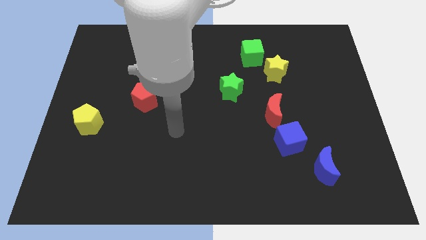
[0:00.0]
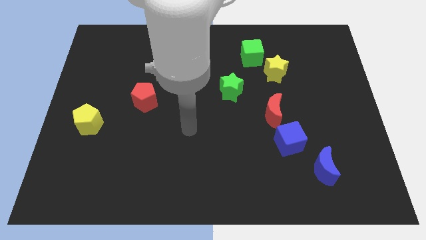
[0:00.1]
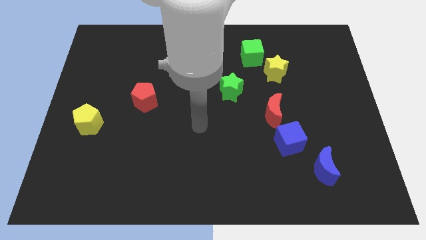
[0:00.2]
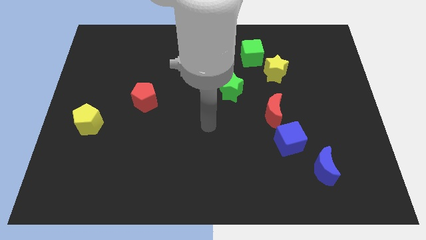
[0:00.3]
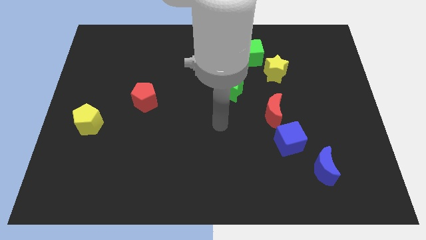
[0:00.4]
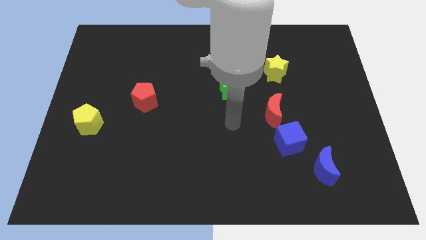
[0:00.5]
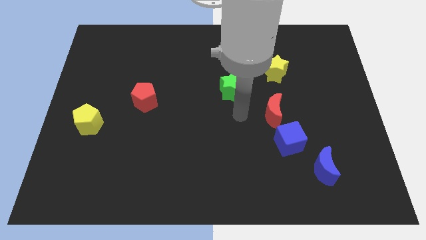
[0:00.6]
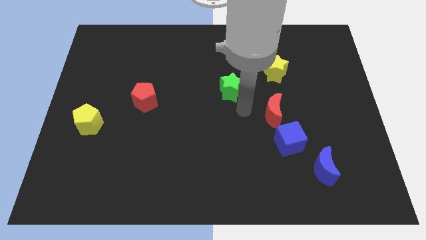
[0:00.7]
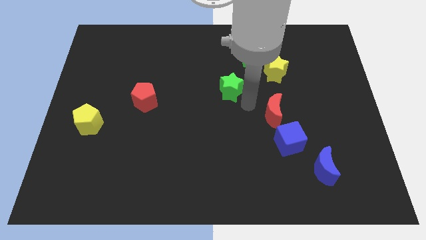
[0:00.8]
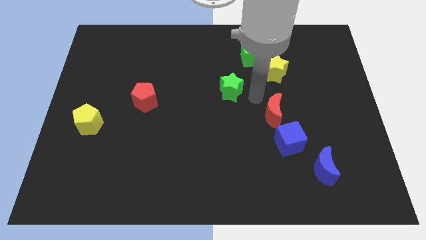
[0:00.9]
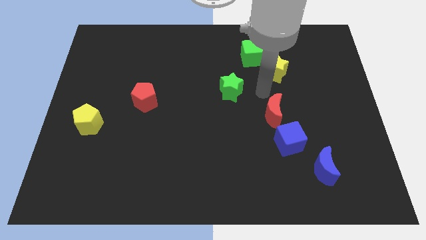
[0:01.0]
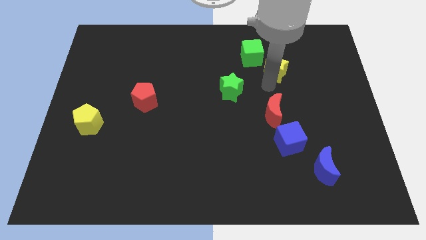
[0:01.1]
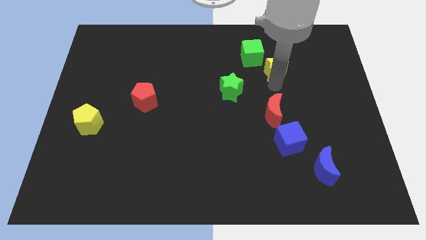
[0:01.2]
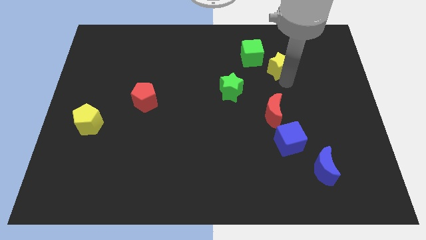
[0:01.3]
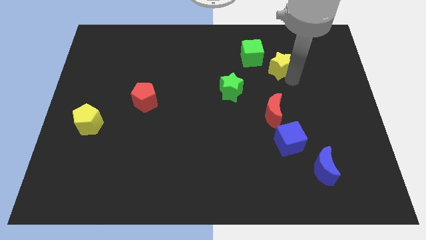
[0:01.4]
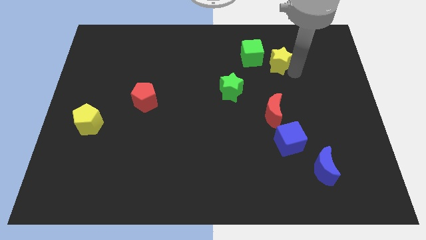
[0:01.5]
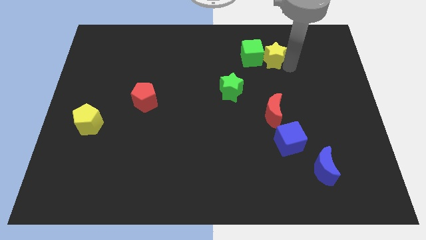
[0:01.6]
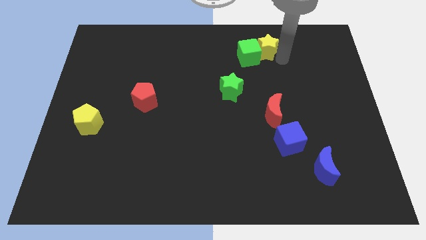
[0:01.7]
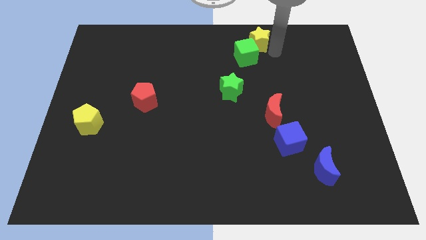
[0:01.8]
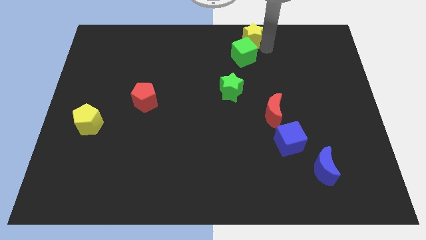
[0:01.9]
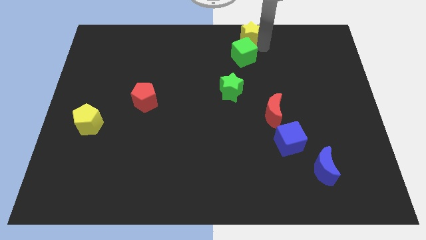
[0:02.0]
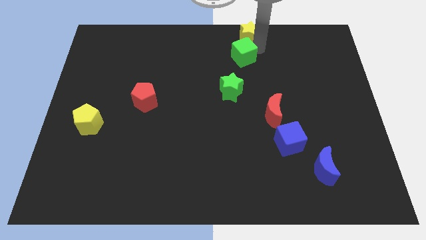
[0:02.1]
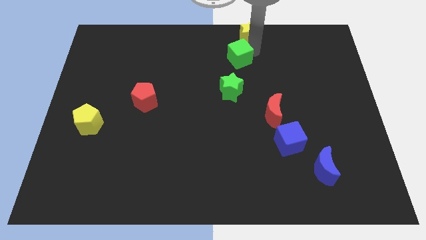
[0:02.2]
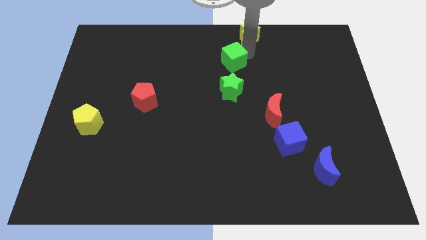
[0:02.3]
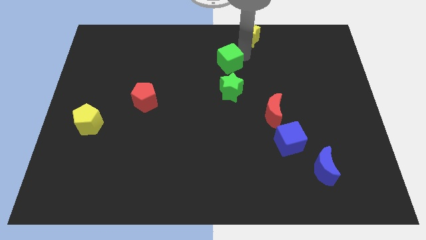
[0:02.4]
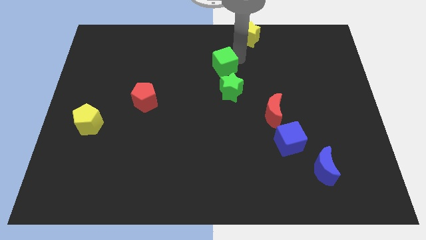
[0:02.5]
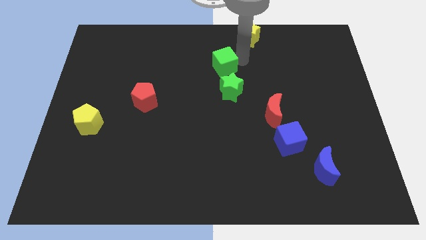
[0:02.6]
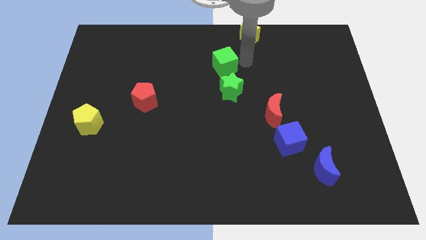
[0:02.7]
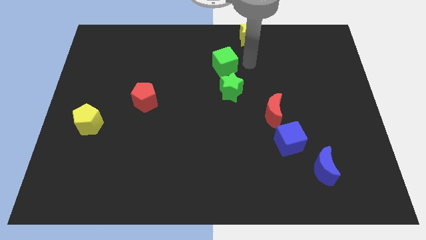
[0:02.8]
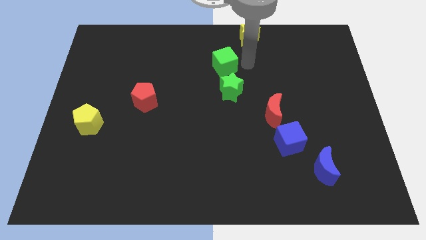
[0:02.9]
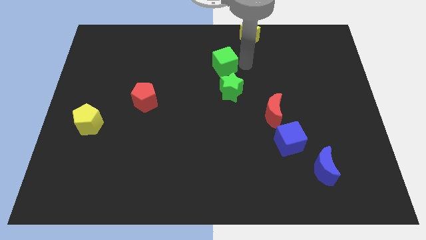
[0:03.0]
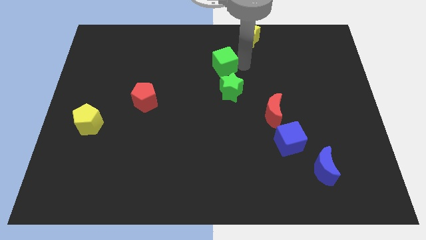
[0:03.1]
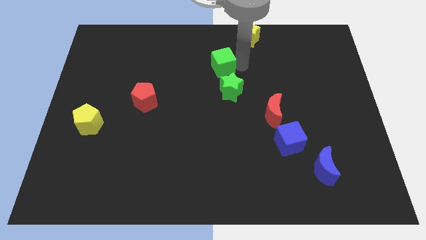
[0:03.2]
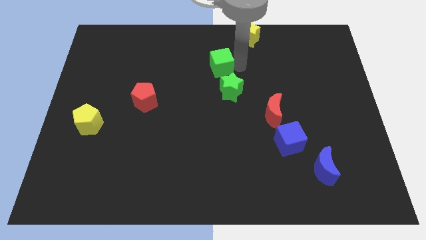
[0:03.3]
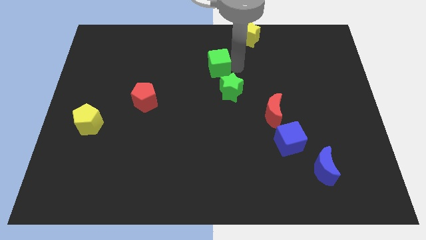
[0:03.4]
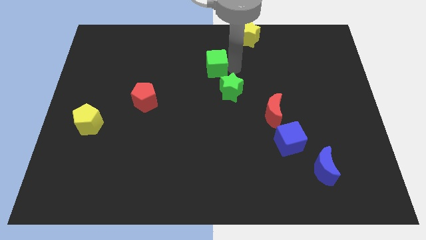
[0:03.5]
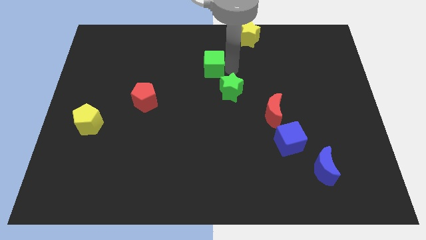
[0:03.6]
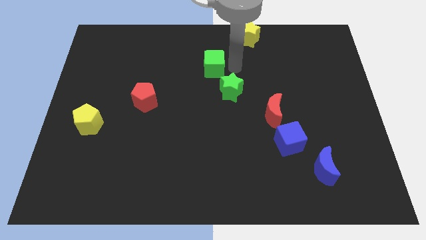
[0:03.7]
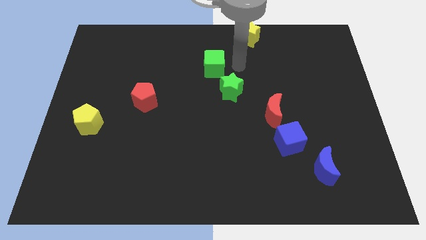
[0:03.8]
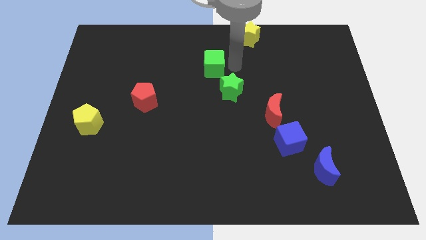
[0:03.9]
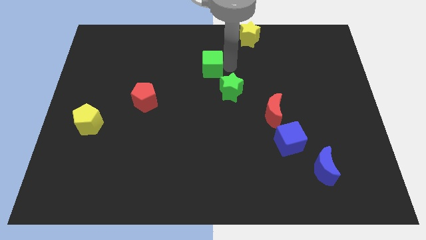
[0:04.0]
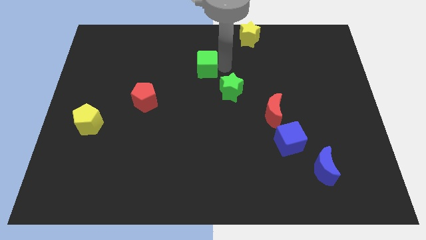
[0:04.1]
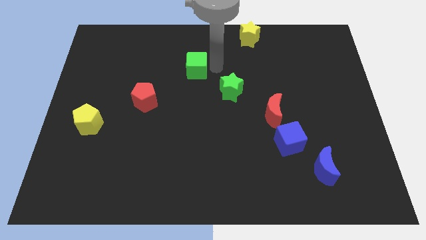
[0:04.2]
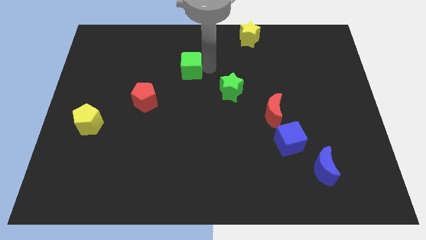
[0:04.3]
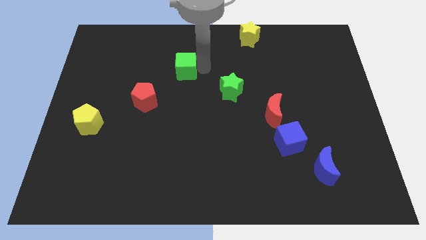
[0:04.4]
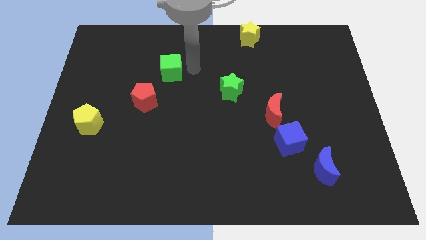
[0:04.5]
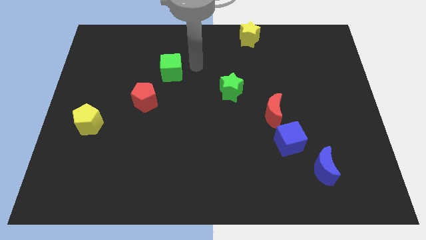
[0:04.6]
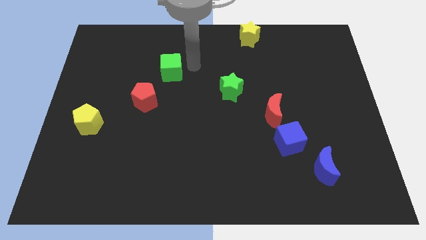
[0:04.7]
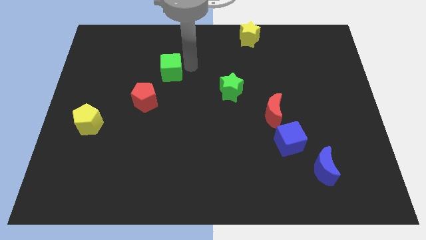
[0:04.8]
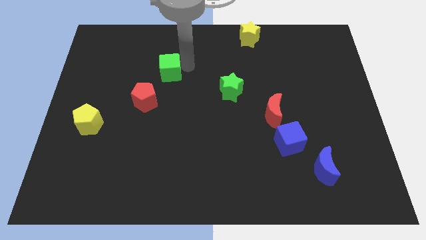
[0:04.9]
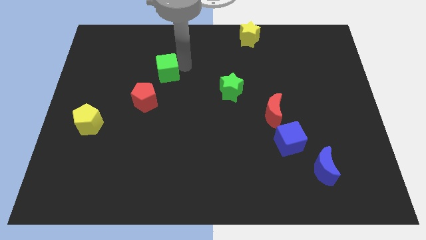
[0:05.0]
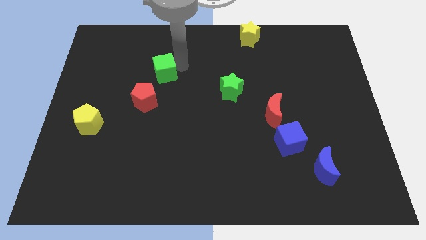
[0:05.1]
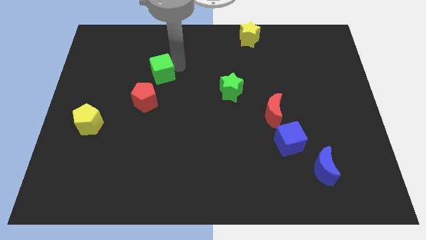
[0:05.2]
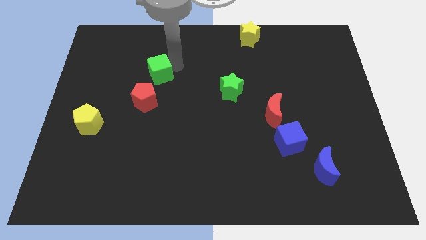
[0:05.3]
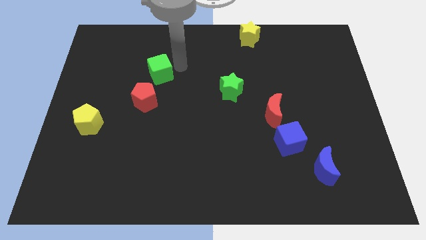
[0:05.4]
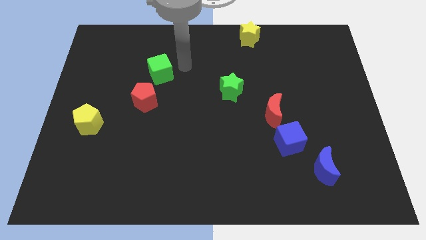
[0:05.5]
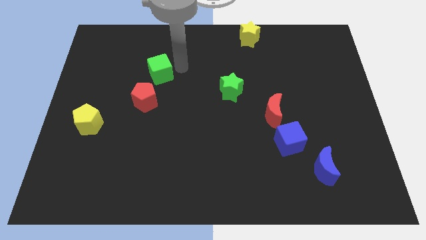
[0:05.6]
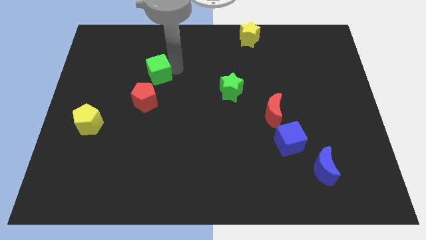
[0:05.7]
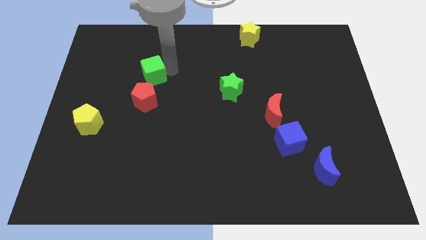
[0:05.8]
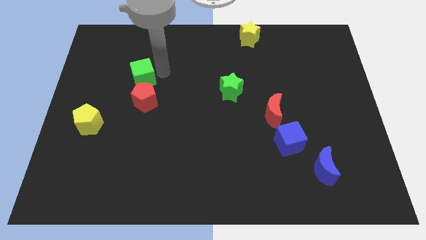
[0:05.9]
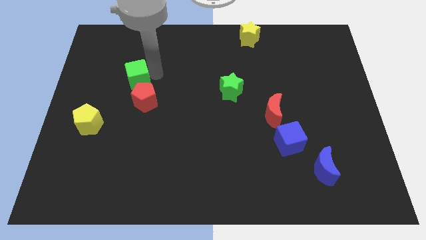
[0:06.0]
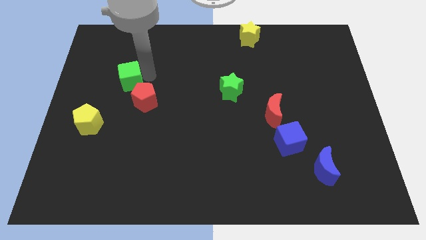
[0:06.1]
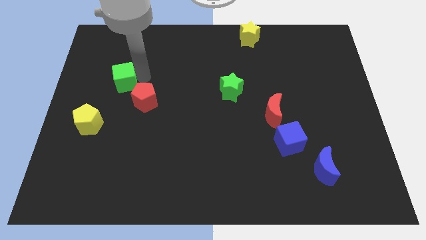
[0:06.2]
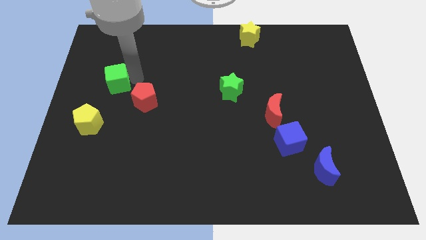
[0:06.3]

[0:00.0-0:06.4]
slide the green cube to the top side of the yellow pentagon

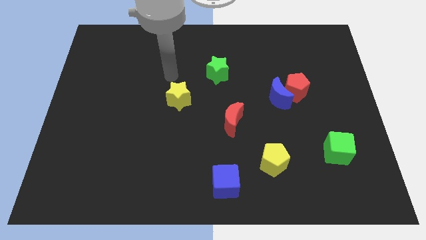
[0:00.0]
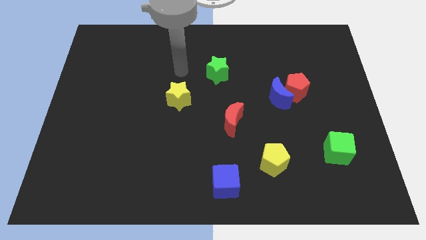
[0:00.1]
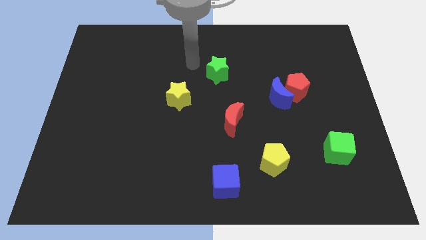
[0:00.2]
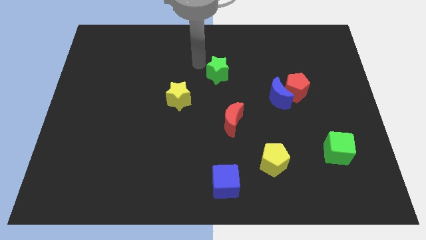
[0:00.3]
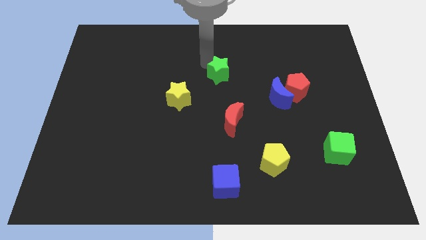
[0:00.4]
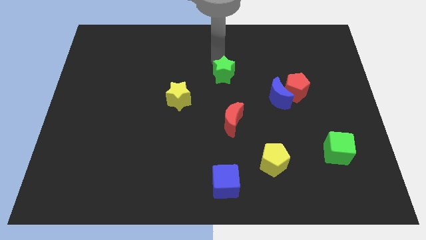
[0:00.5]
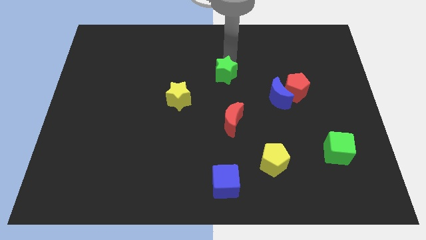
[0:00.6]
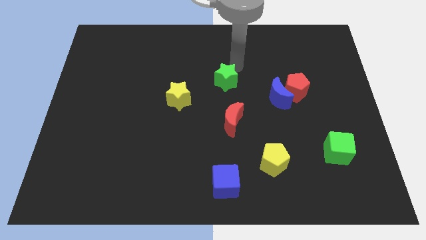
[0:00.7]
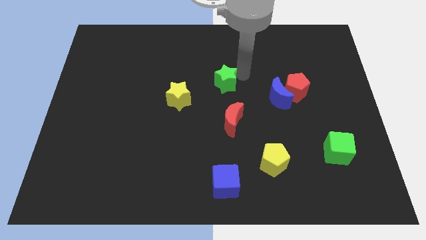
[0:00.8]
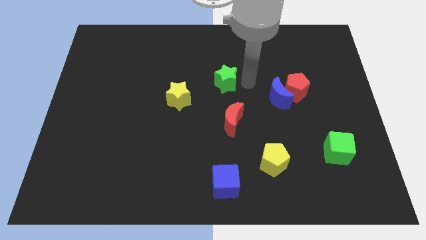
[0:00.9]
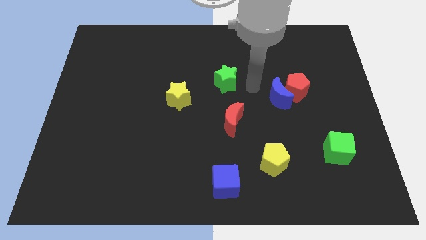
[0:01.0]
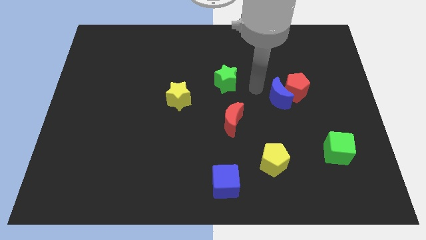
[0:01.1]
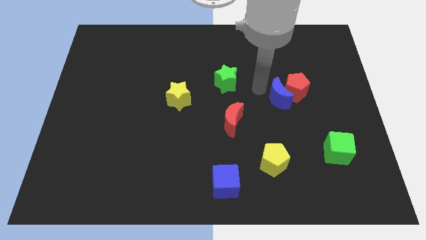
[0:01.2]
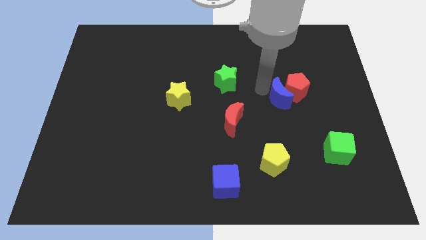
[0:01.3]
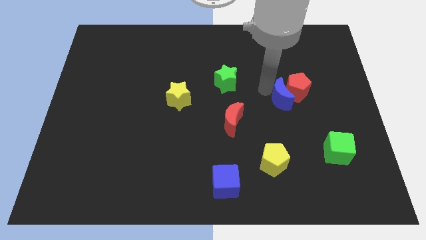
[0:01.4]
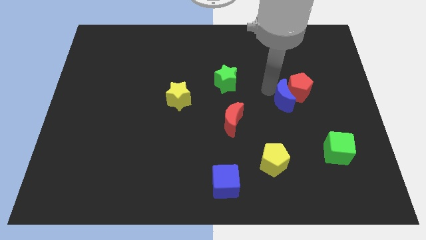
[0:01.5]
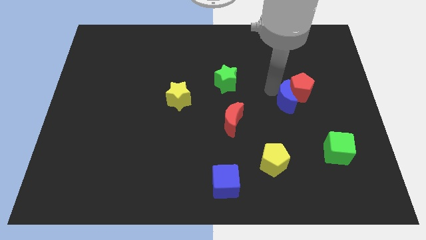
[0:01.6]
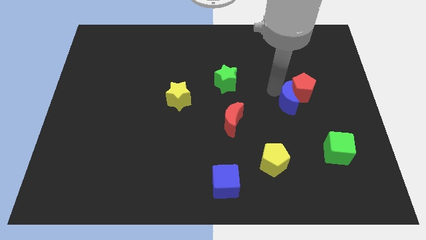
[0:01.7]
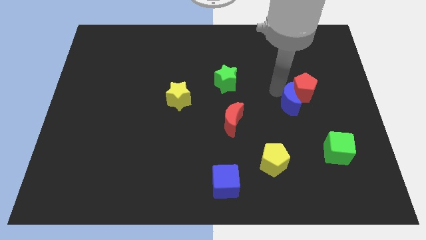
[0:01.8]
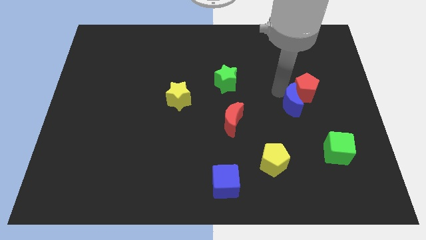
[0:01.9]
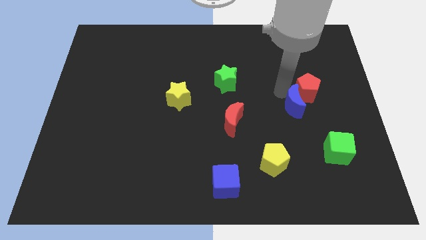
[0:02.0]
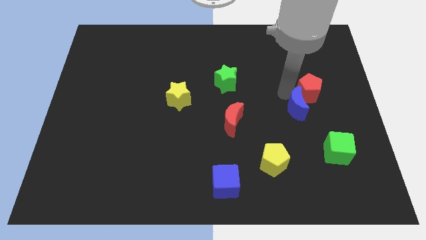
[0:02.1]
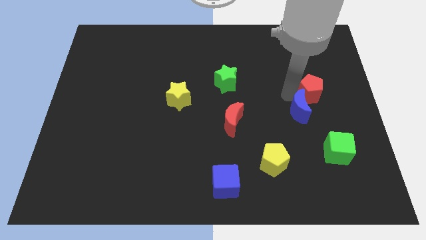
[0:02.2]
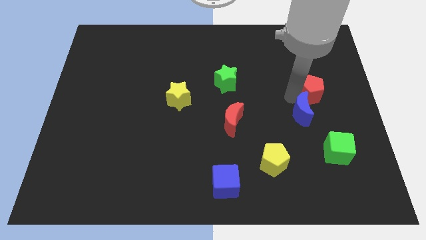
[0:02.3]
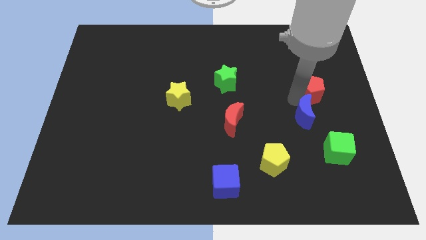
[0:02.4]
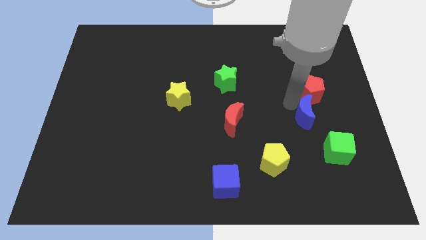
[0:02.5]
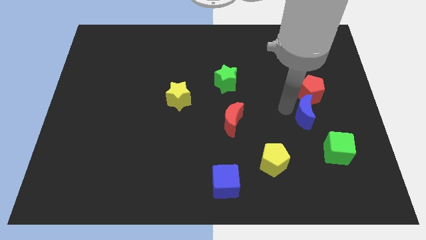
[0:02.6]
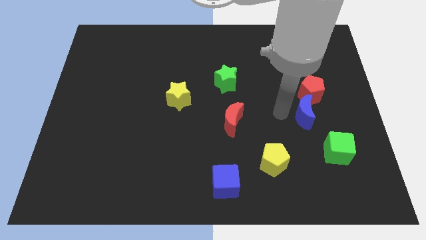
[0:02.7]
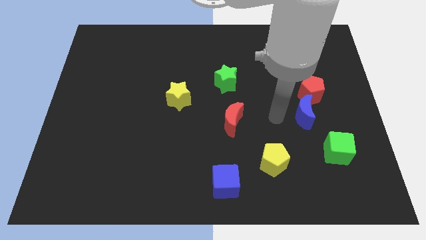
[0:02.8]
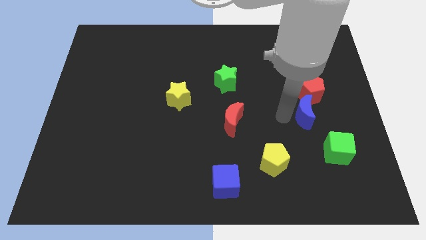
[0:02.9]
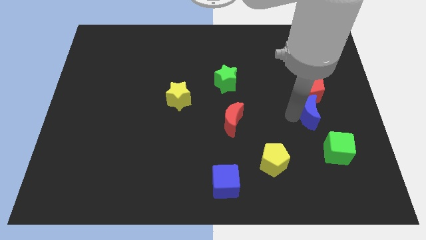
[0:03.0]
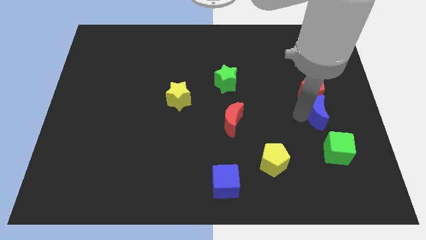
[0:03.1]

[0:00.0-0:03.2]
slide the blue moon to the bottom right side of the red pentagon
